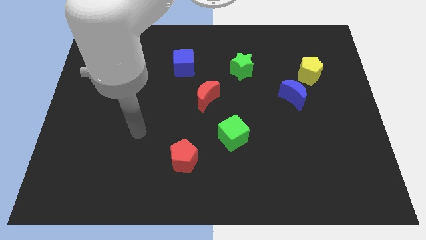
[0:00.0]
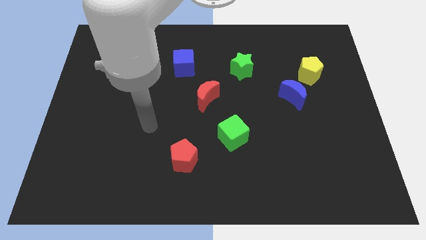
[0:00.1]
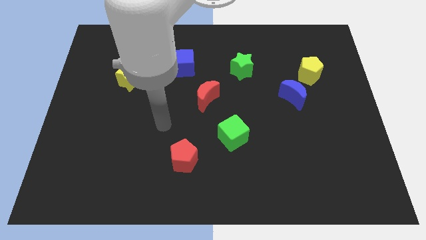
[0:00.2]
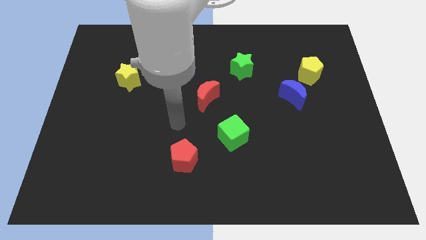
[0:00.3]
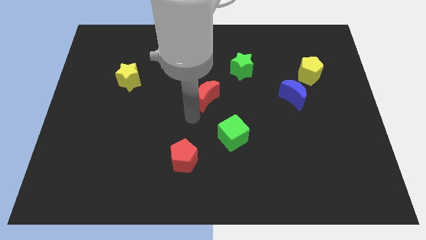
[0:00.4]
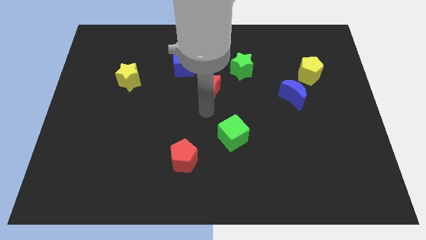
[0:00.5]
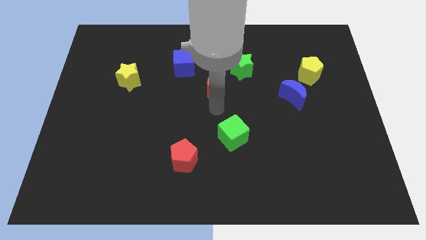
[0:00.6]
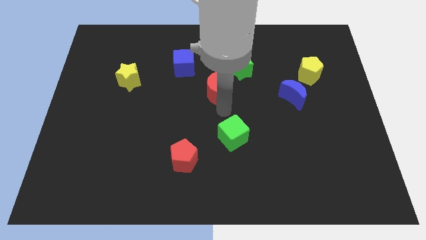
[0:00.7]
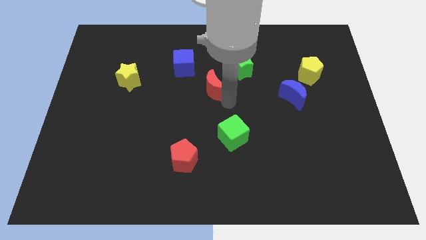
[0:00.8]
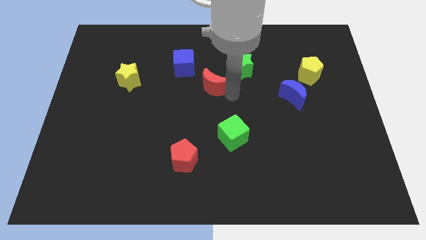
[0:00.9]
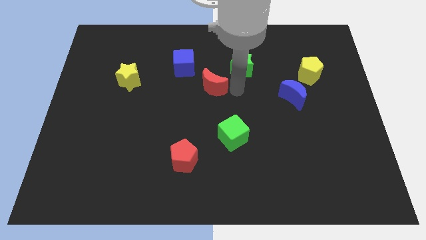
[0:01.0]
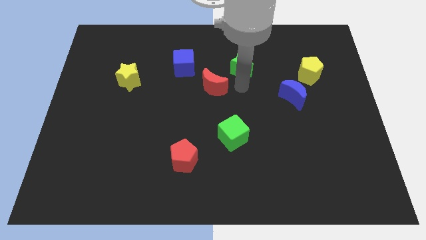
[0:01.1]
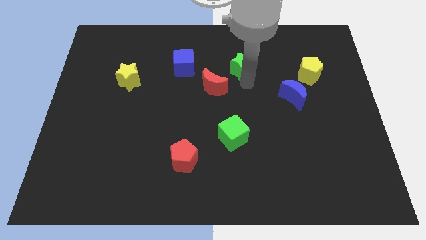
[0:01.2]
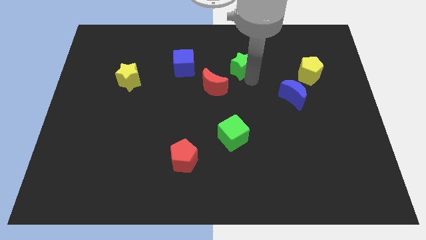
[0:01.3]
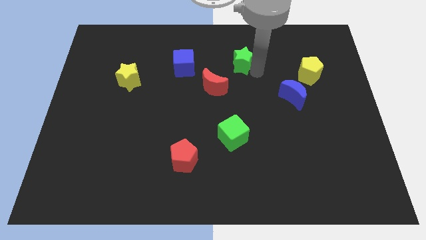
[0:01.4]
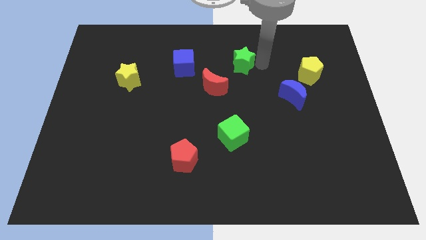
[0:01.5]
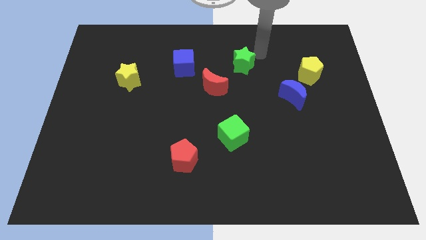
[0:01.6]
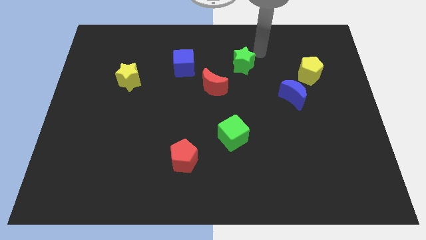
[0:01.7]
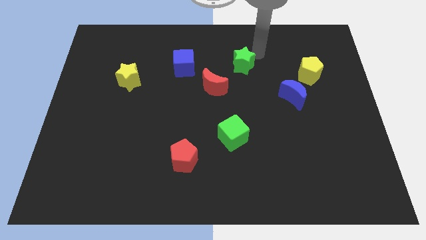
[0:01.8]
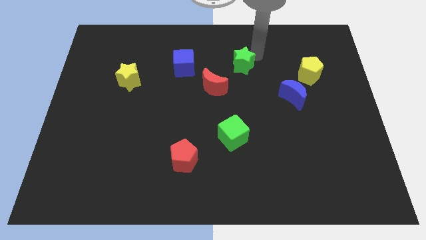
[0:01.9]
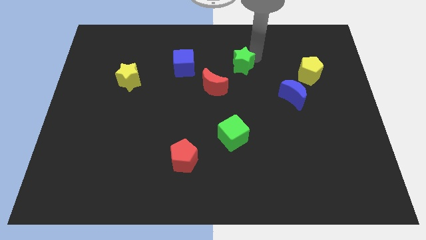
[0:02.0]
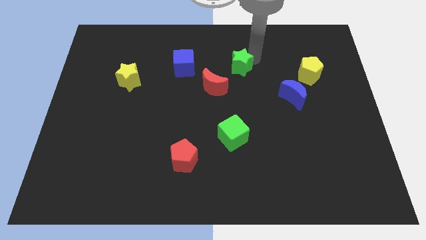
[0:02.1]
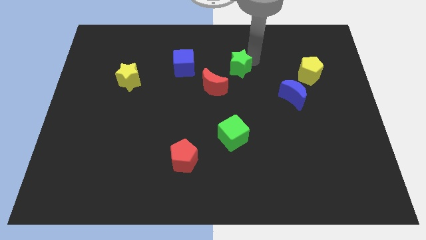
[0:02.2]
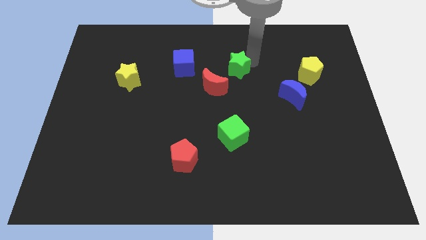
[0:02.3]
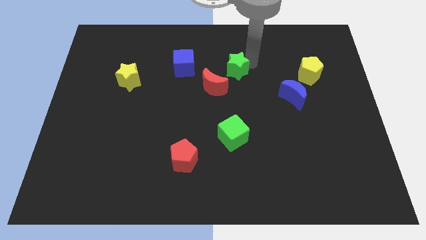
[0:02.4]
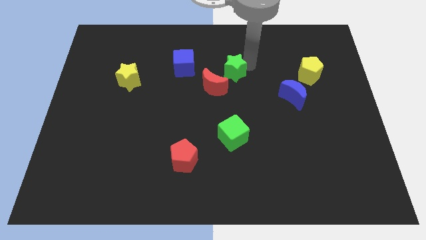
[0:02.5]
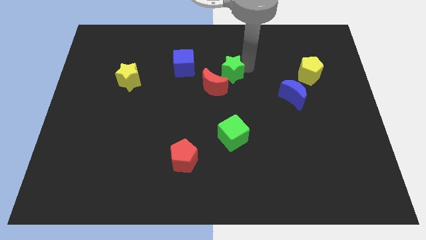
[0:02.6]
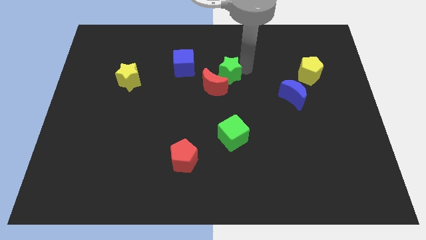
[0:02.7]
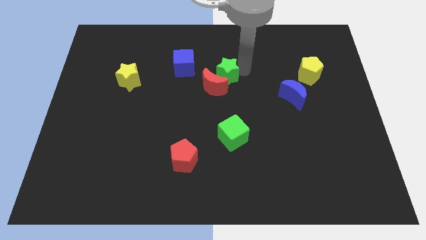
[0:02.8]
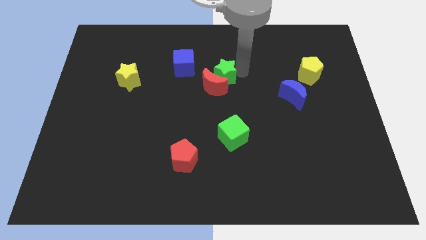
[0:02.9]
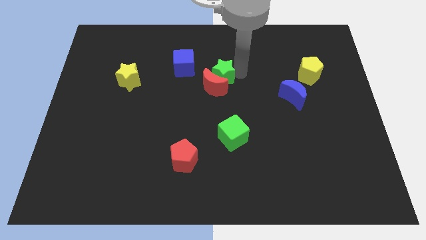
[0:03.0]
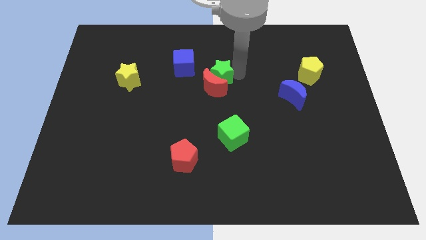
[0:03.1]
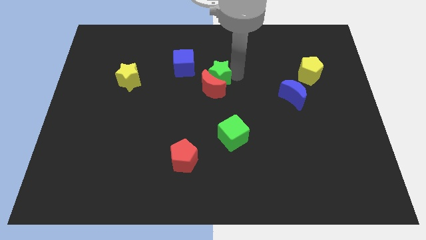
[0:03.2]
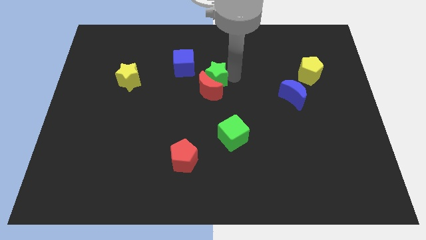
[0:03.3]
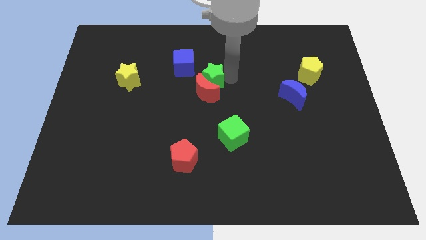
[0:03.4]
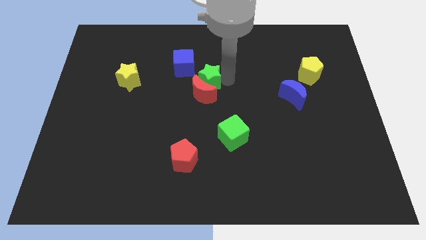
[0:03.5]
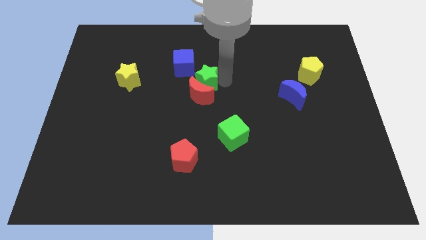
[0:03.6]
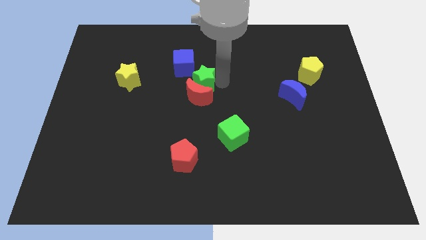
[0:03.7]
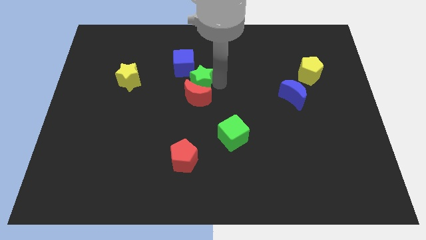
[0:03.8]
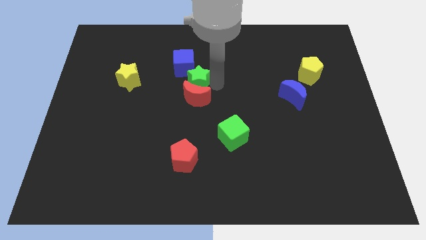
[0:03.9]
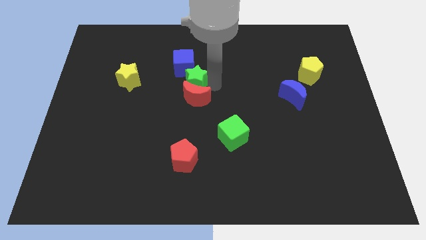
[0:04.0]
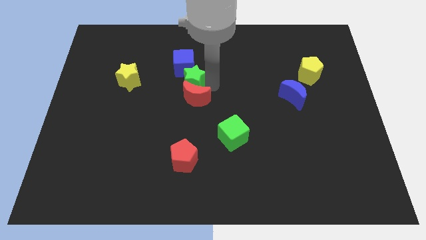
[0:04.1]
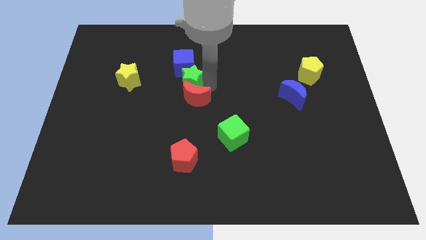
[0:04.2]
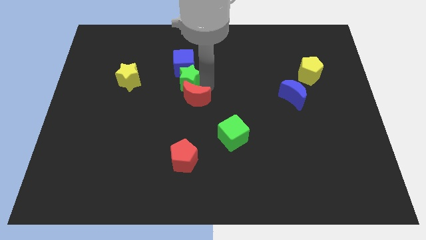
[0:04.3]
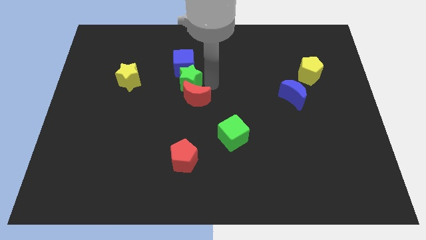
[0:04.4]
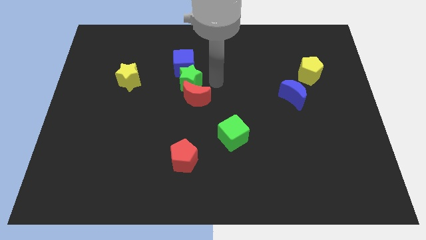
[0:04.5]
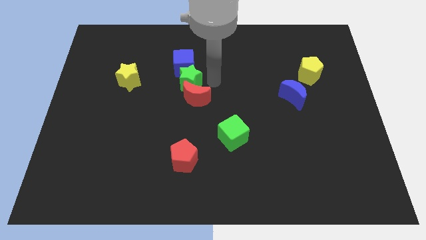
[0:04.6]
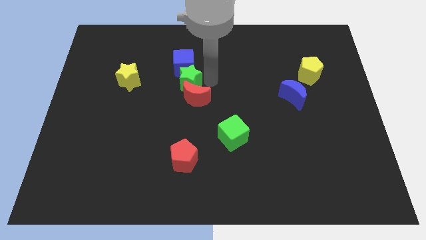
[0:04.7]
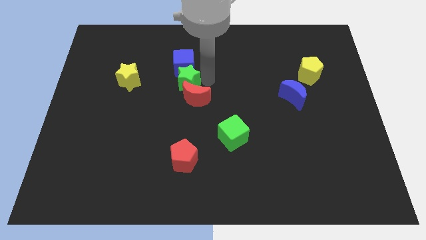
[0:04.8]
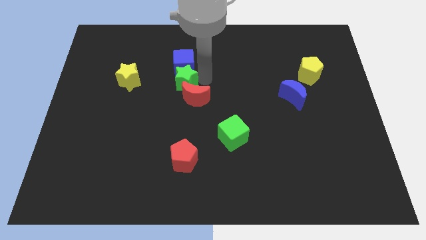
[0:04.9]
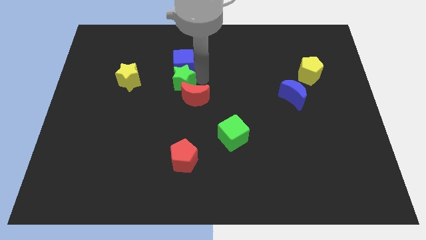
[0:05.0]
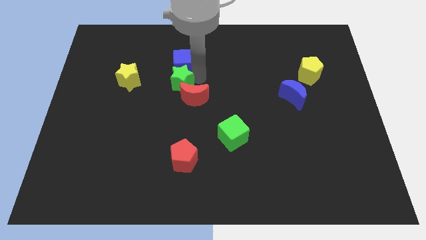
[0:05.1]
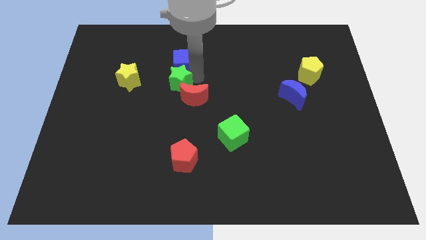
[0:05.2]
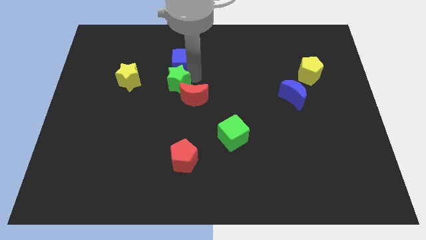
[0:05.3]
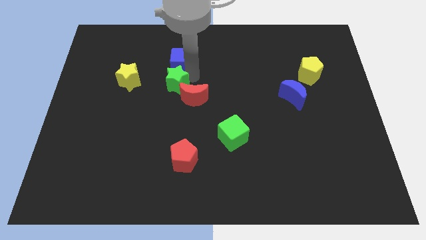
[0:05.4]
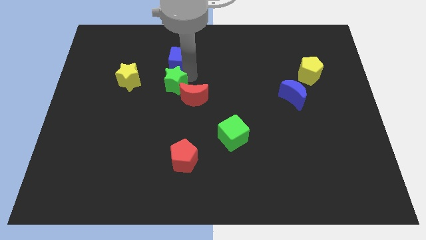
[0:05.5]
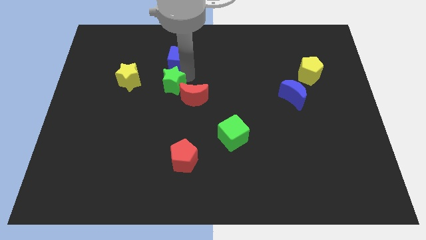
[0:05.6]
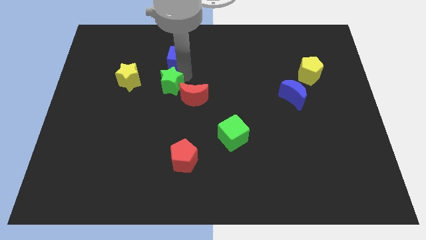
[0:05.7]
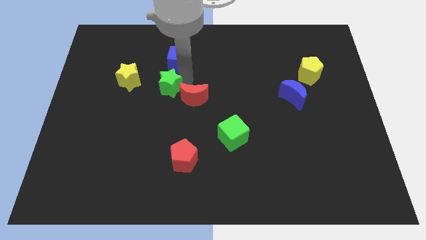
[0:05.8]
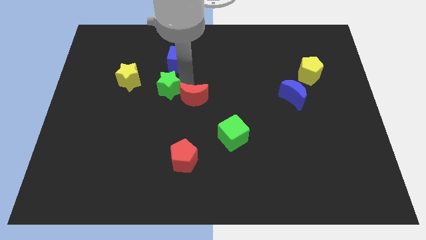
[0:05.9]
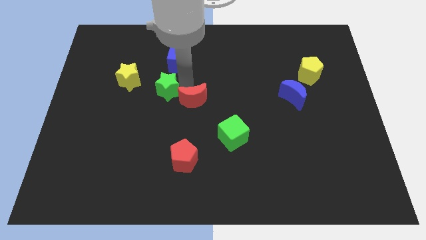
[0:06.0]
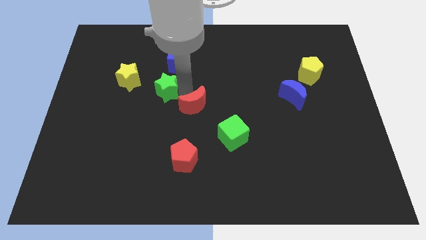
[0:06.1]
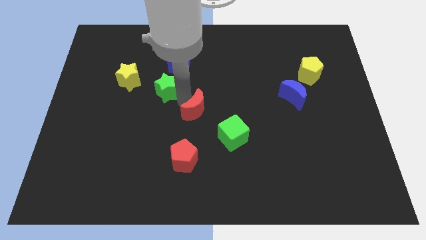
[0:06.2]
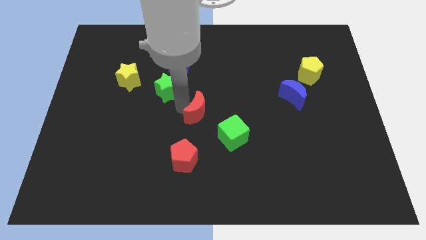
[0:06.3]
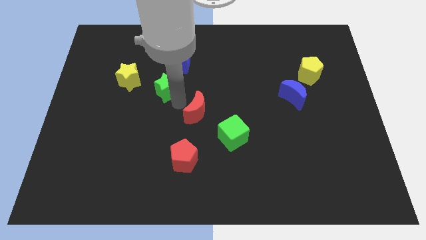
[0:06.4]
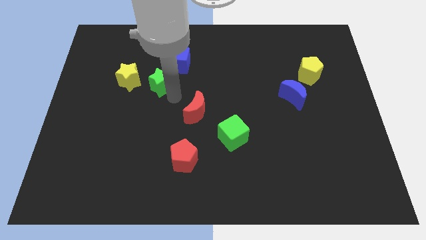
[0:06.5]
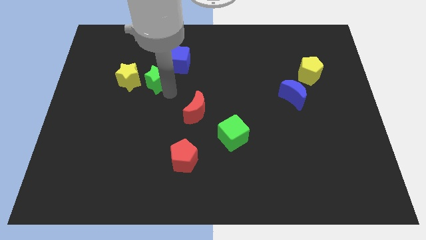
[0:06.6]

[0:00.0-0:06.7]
move the green star to the left

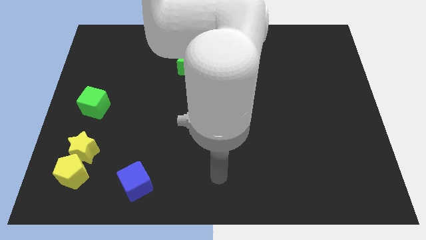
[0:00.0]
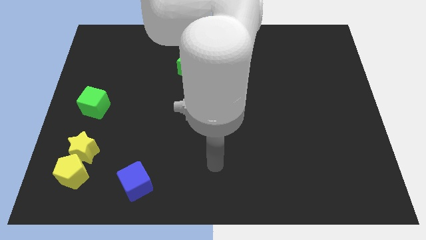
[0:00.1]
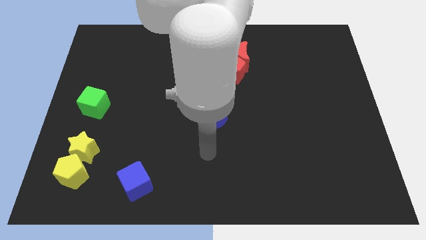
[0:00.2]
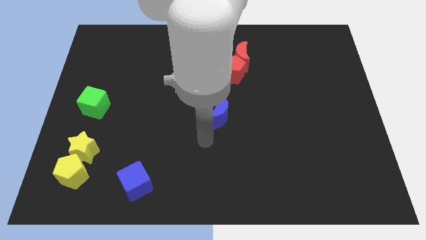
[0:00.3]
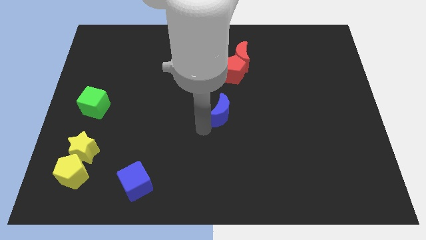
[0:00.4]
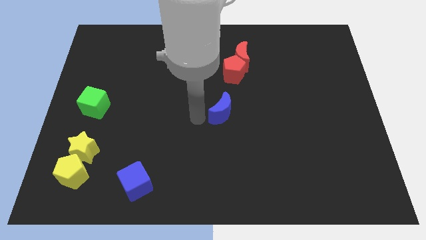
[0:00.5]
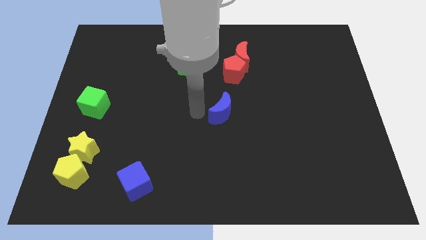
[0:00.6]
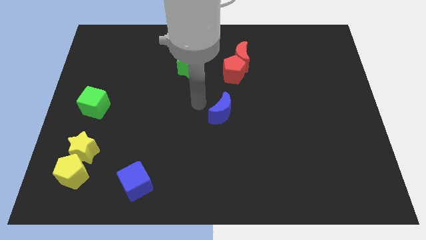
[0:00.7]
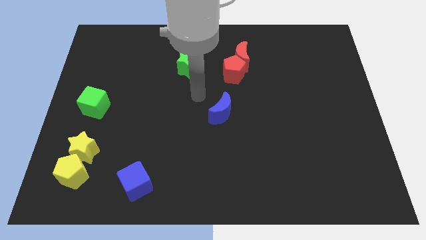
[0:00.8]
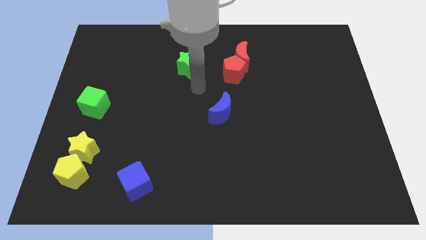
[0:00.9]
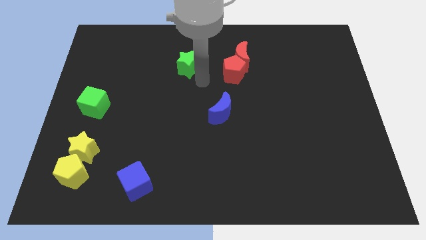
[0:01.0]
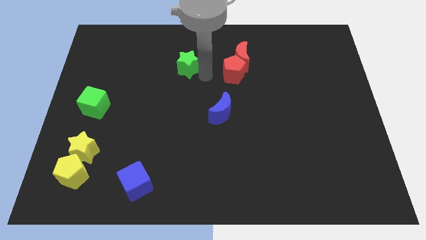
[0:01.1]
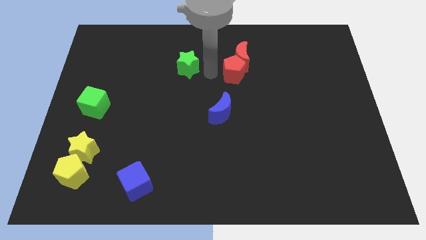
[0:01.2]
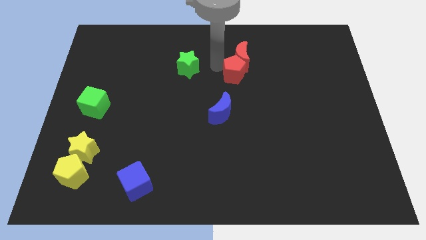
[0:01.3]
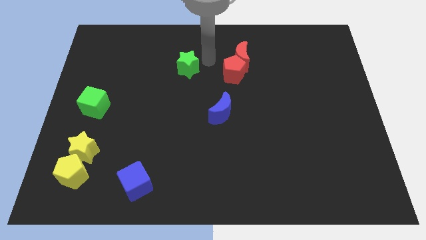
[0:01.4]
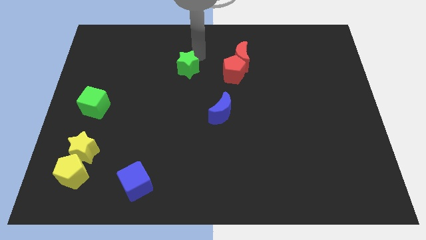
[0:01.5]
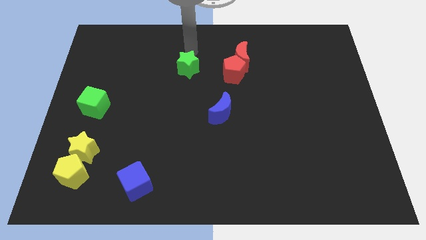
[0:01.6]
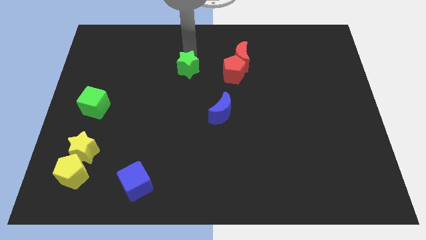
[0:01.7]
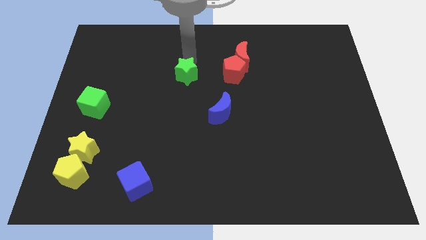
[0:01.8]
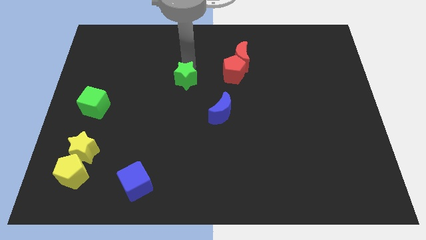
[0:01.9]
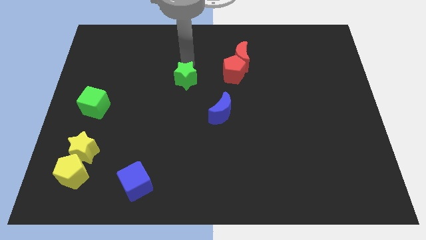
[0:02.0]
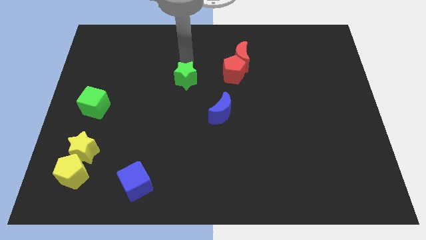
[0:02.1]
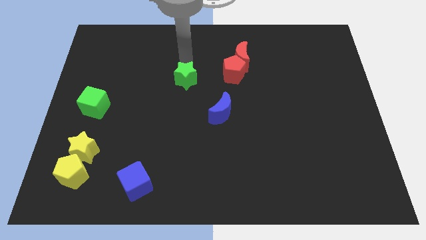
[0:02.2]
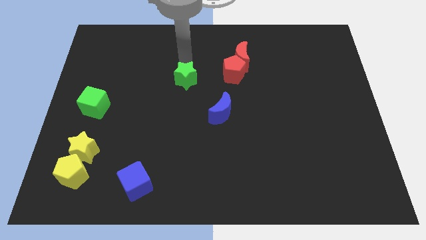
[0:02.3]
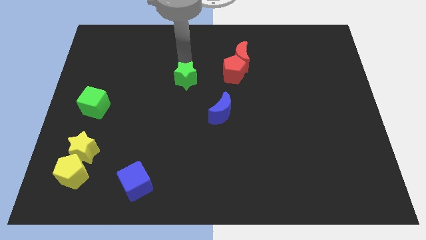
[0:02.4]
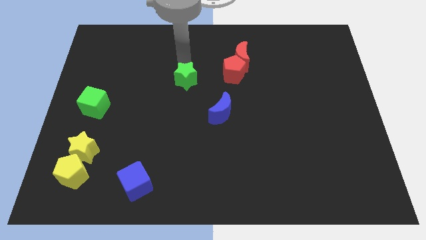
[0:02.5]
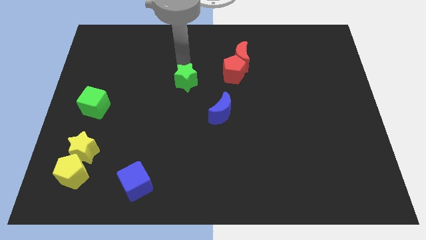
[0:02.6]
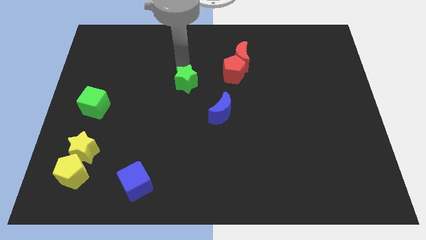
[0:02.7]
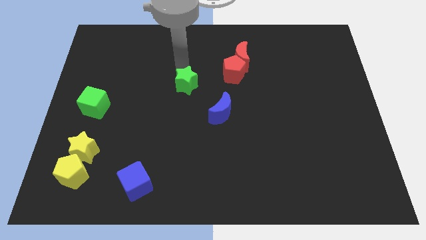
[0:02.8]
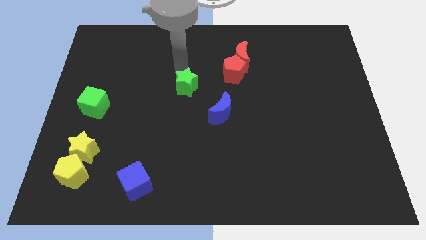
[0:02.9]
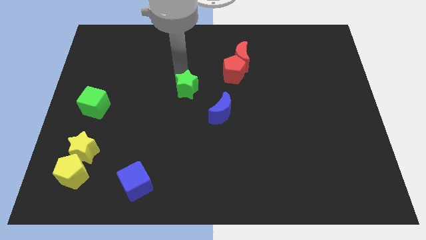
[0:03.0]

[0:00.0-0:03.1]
move the green star a little down
